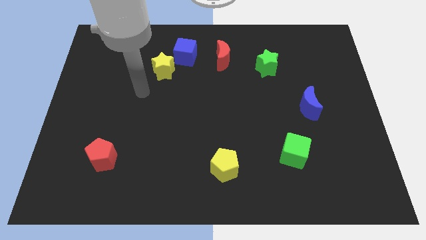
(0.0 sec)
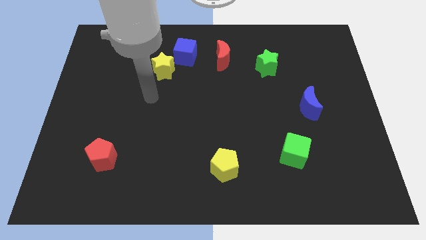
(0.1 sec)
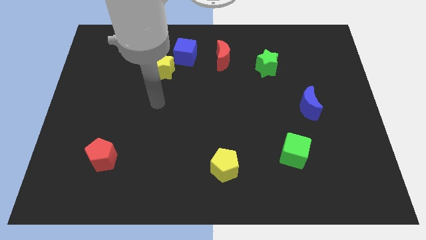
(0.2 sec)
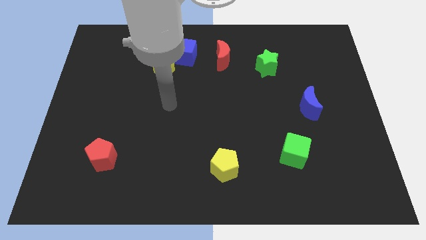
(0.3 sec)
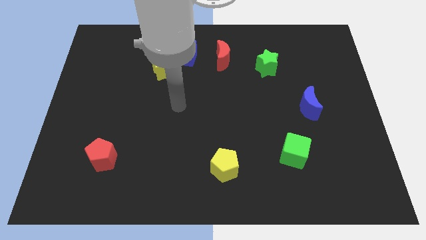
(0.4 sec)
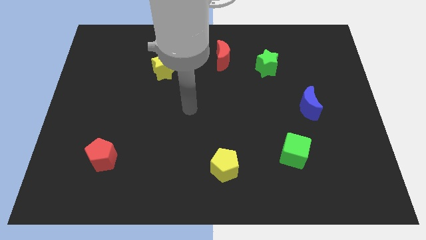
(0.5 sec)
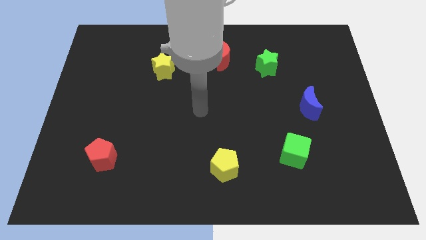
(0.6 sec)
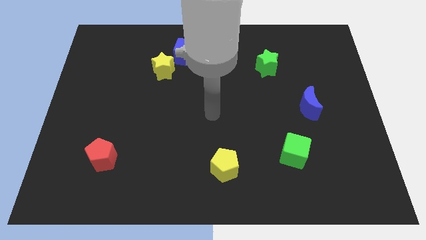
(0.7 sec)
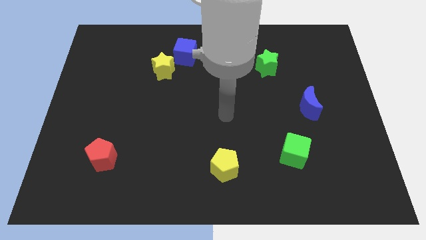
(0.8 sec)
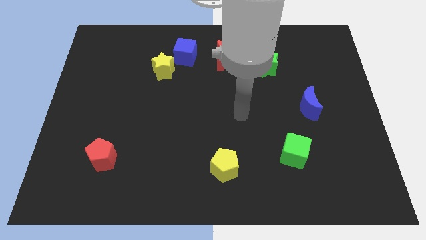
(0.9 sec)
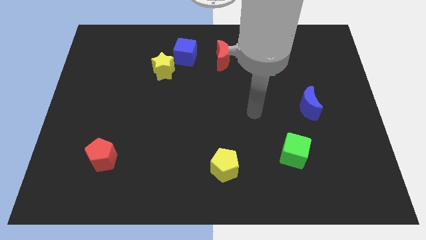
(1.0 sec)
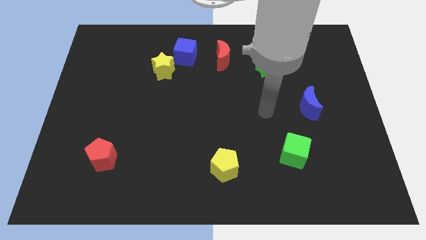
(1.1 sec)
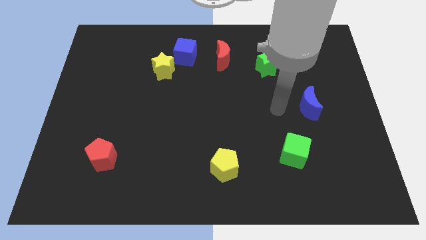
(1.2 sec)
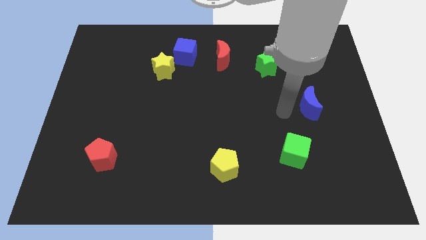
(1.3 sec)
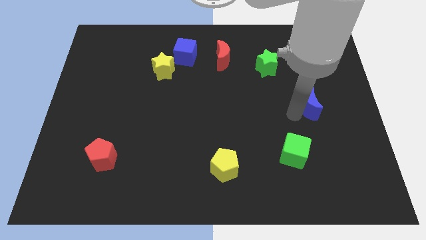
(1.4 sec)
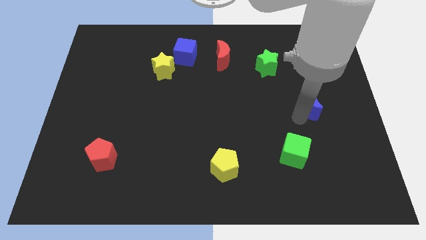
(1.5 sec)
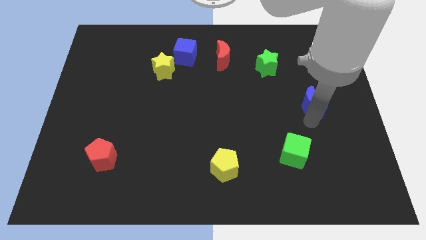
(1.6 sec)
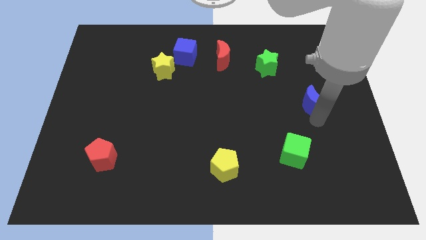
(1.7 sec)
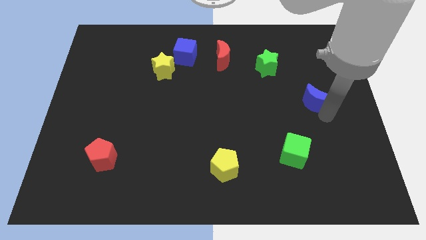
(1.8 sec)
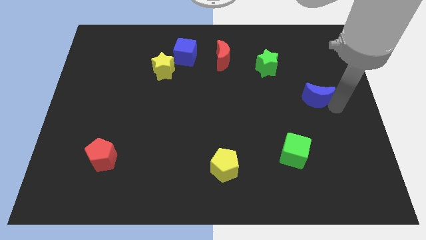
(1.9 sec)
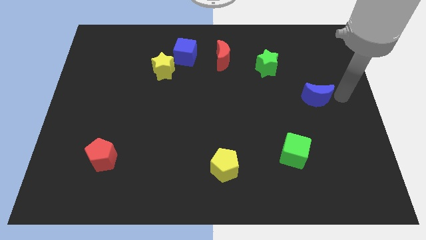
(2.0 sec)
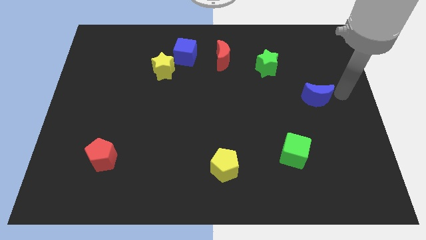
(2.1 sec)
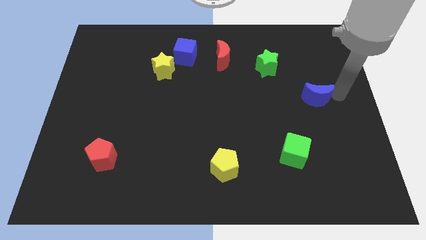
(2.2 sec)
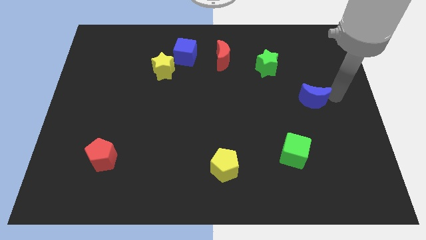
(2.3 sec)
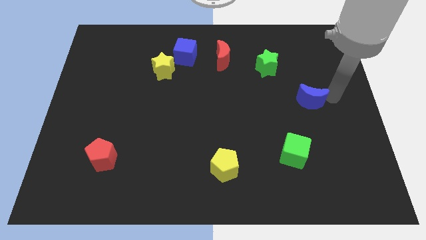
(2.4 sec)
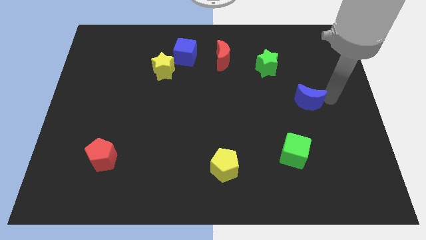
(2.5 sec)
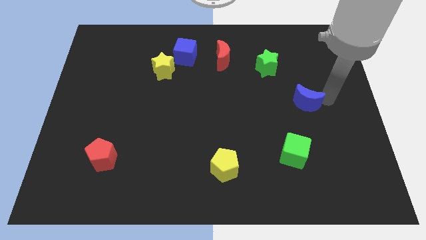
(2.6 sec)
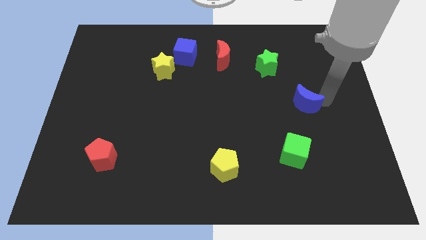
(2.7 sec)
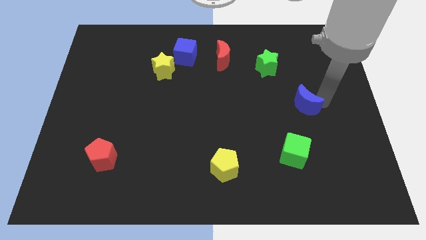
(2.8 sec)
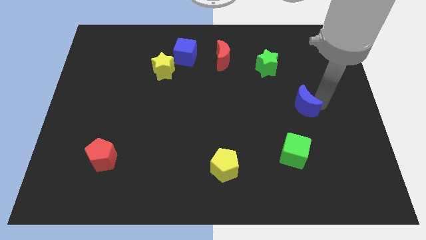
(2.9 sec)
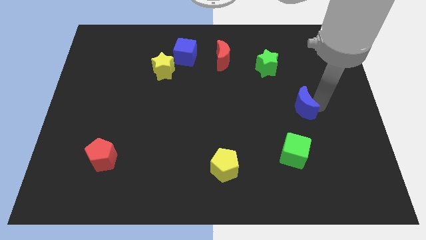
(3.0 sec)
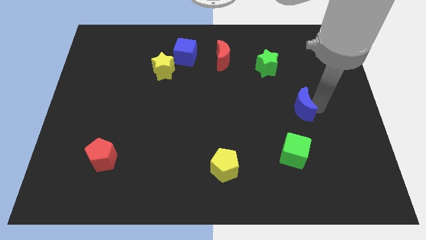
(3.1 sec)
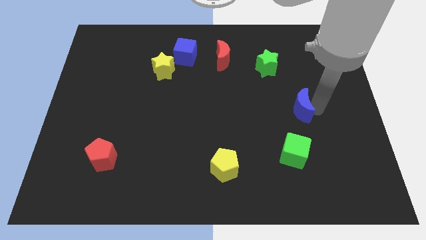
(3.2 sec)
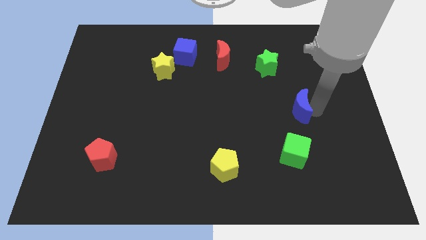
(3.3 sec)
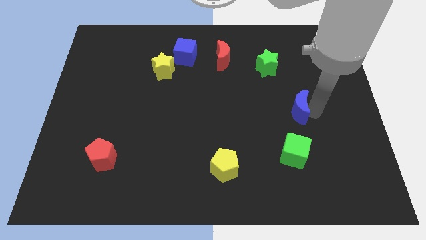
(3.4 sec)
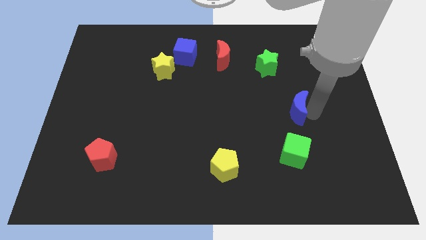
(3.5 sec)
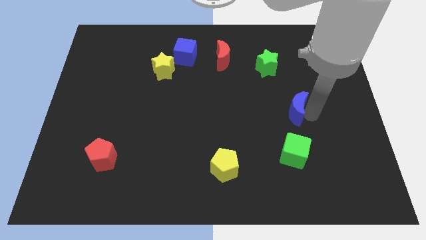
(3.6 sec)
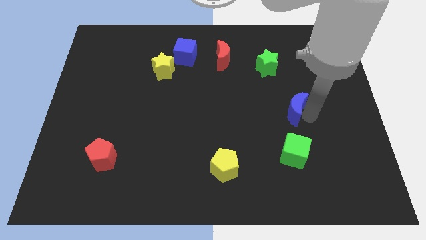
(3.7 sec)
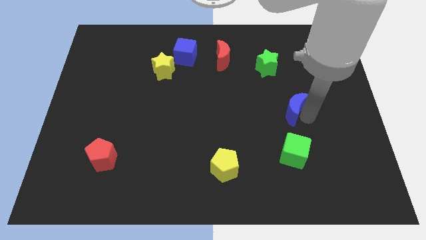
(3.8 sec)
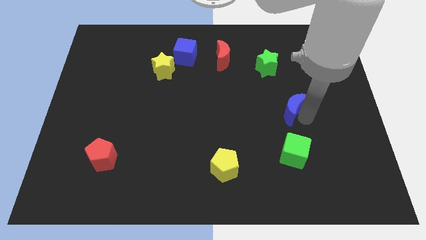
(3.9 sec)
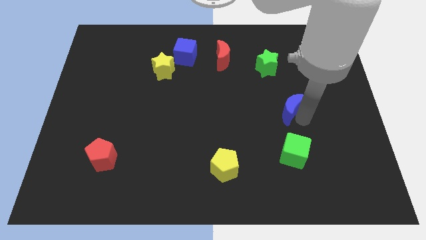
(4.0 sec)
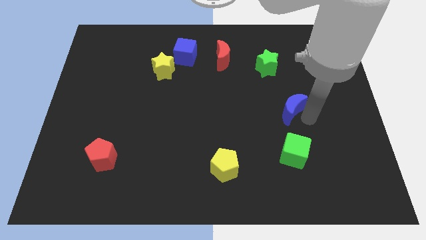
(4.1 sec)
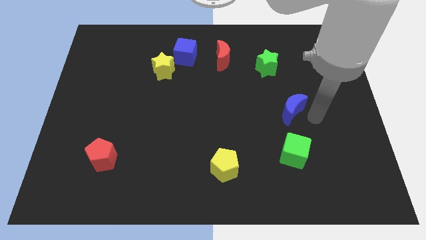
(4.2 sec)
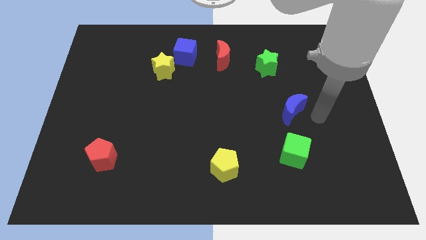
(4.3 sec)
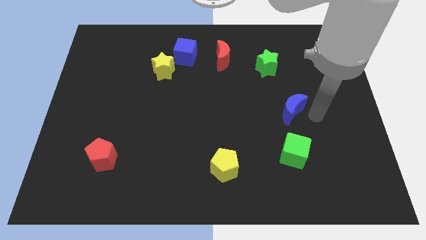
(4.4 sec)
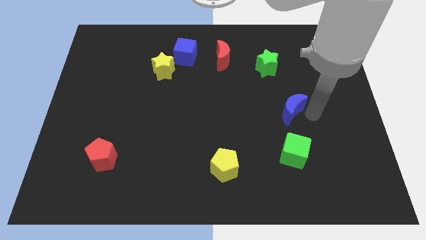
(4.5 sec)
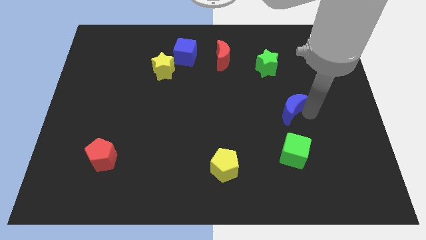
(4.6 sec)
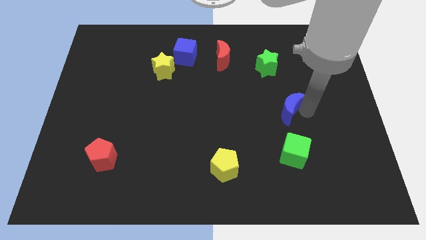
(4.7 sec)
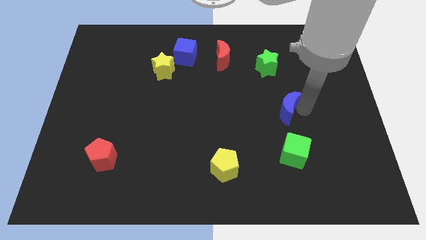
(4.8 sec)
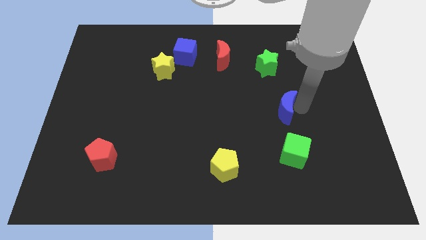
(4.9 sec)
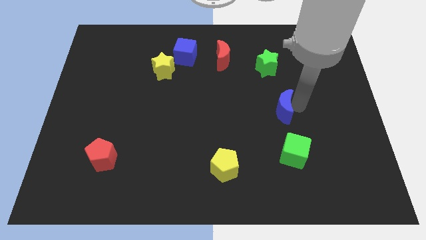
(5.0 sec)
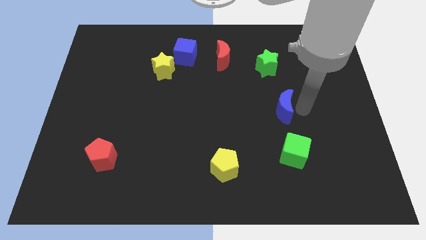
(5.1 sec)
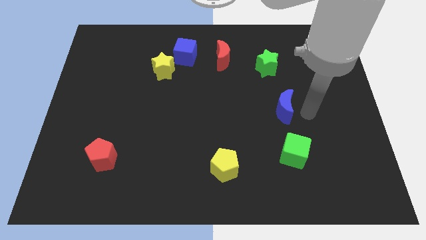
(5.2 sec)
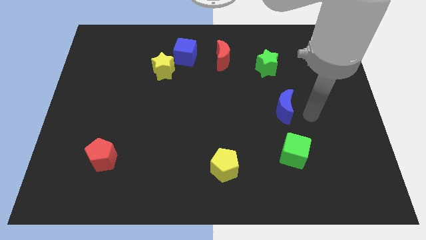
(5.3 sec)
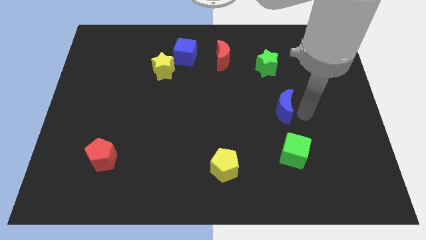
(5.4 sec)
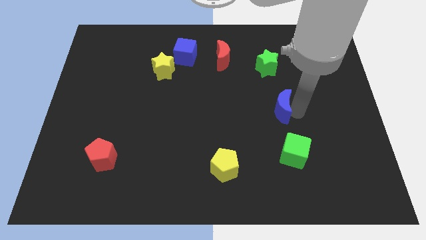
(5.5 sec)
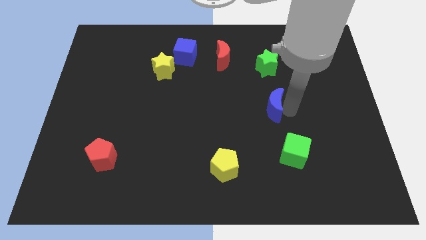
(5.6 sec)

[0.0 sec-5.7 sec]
push the blue moon a little to the left

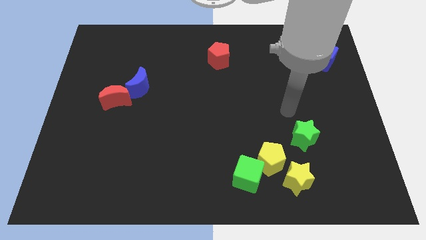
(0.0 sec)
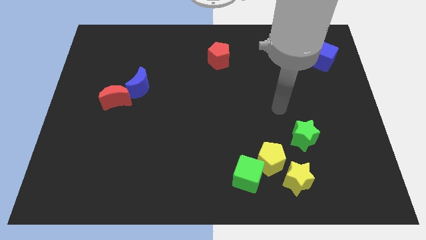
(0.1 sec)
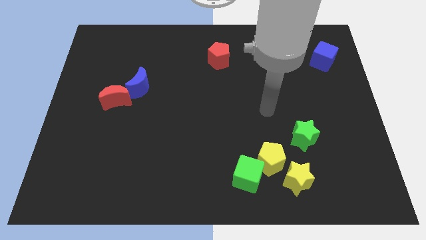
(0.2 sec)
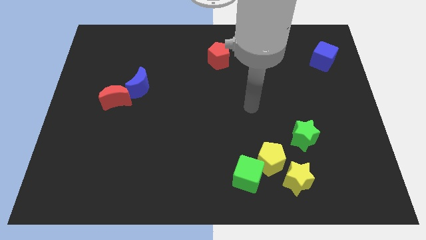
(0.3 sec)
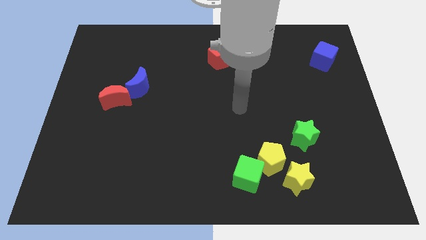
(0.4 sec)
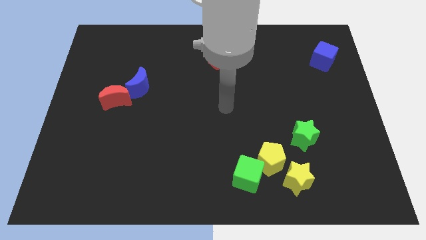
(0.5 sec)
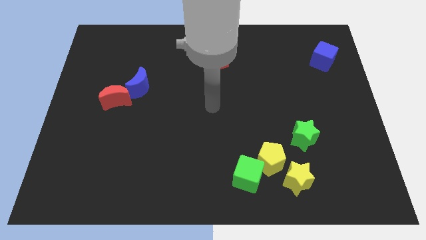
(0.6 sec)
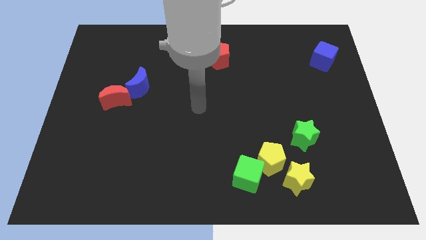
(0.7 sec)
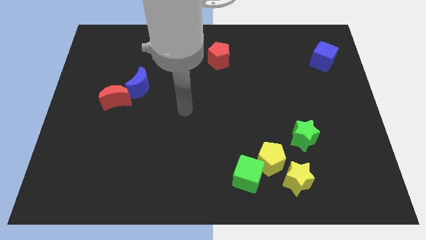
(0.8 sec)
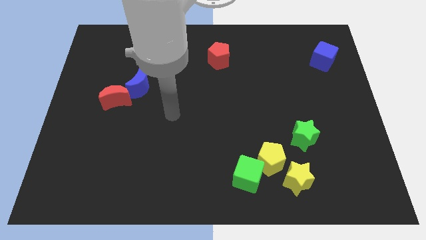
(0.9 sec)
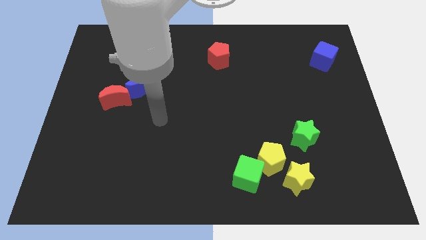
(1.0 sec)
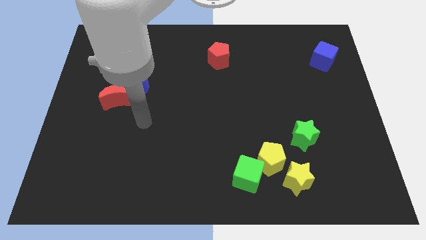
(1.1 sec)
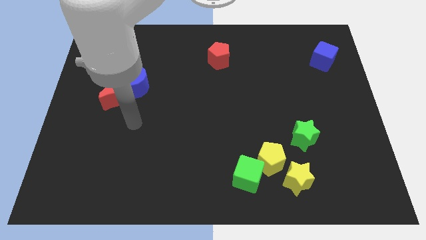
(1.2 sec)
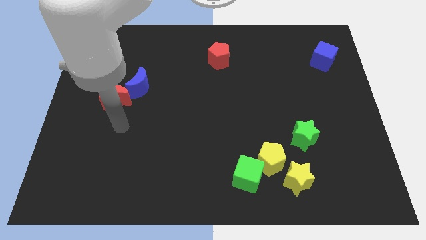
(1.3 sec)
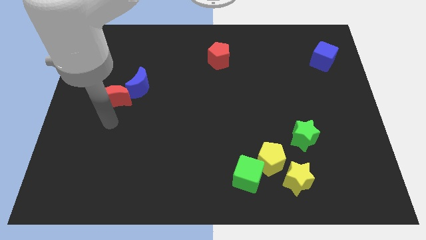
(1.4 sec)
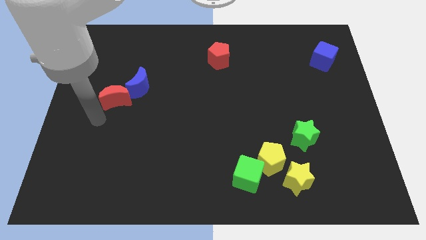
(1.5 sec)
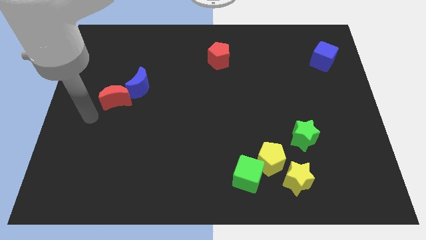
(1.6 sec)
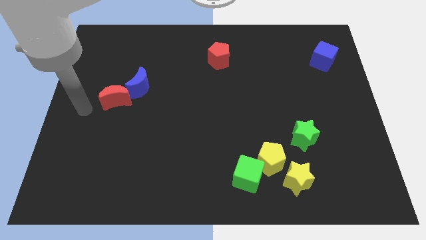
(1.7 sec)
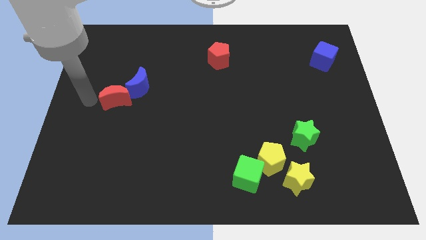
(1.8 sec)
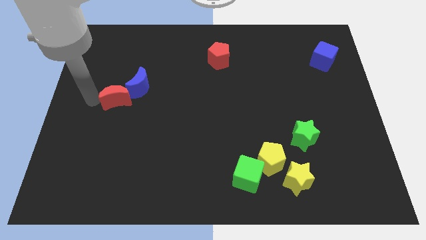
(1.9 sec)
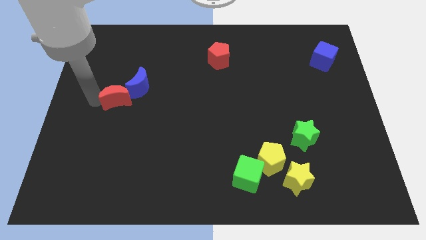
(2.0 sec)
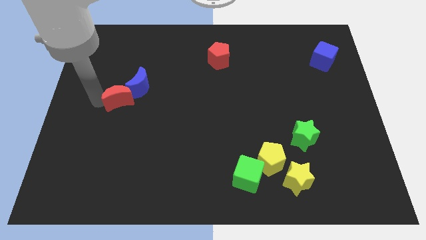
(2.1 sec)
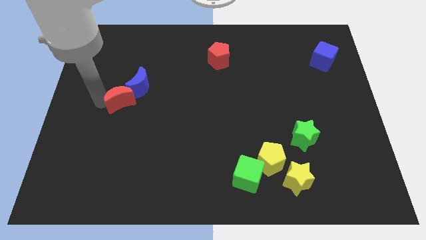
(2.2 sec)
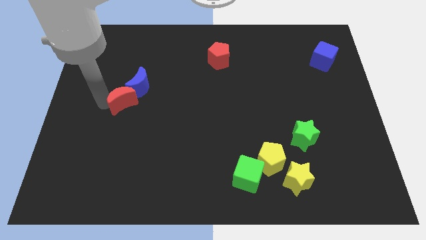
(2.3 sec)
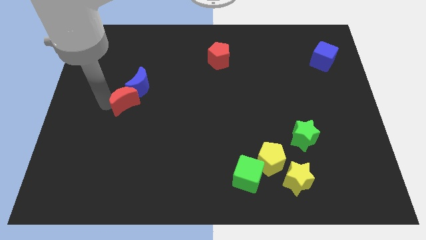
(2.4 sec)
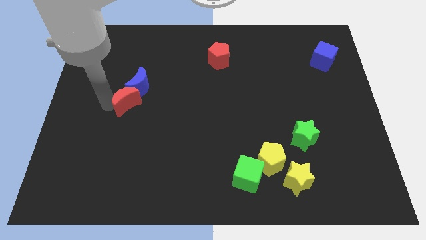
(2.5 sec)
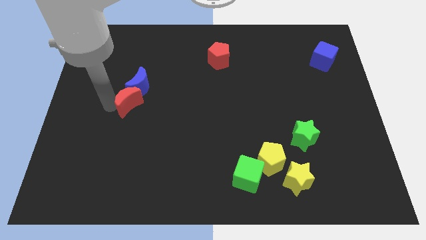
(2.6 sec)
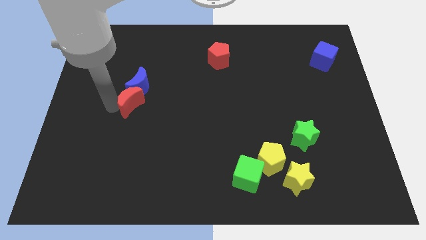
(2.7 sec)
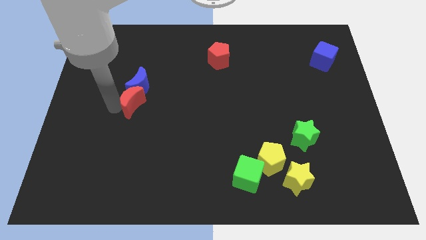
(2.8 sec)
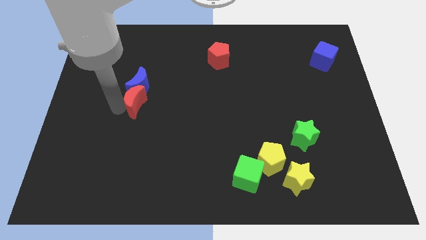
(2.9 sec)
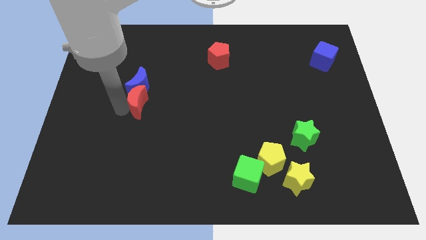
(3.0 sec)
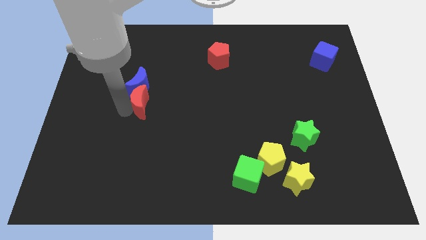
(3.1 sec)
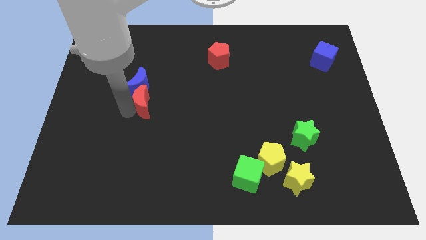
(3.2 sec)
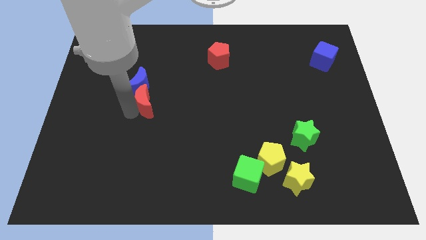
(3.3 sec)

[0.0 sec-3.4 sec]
move the red moon a little bit right
